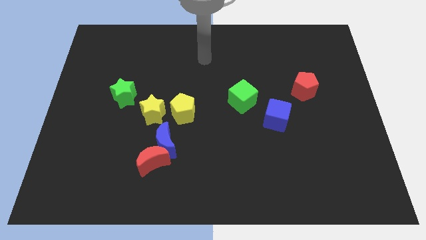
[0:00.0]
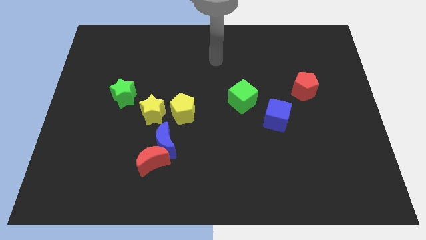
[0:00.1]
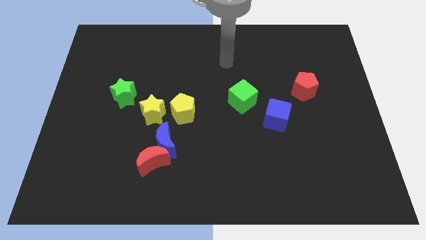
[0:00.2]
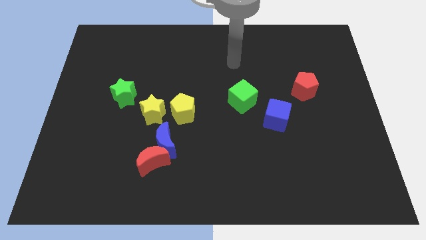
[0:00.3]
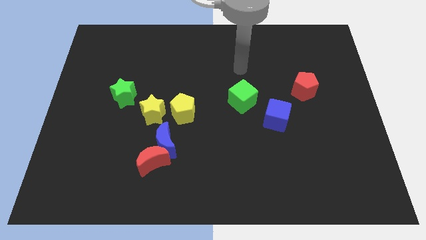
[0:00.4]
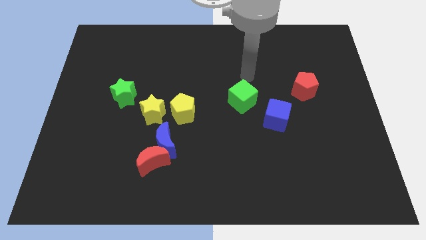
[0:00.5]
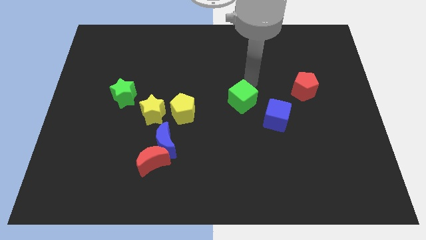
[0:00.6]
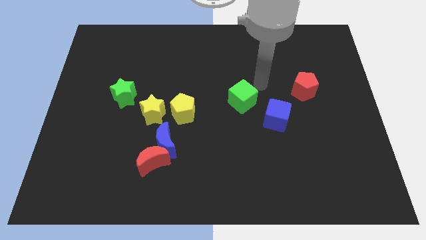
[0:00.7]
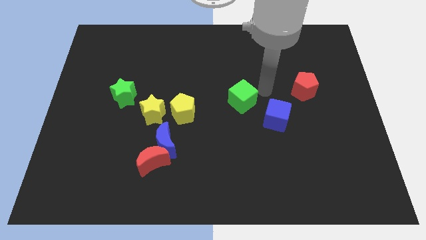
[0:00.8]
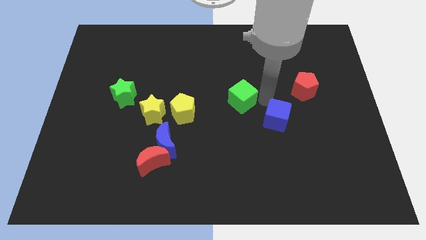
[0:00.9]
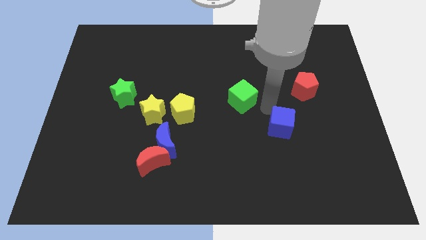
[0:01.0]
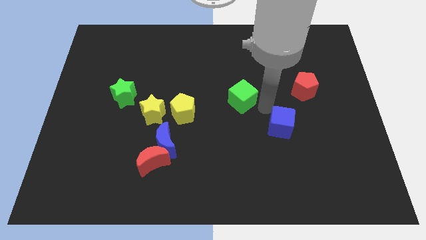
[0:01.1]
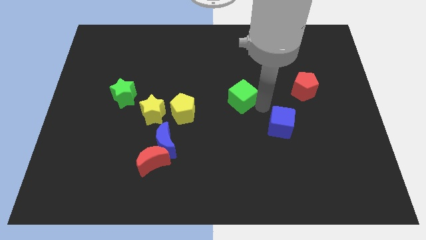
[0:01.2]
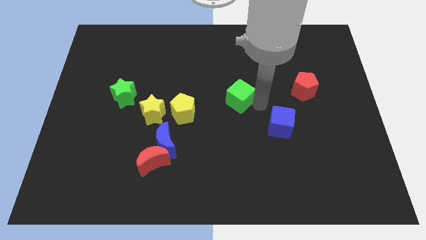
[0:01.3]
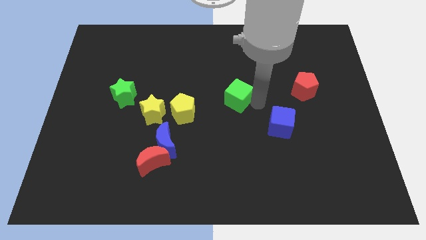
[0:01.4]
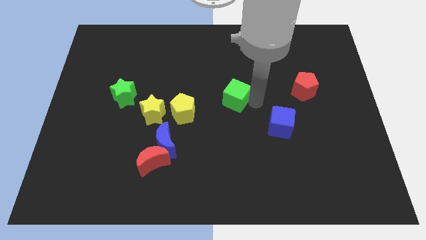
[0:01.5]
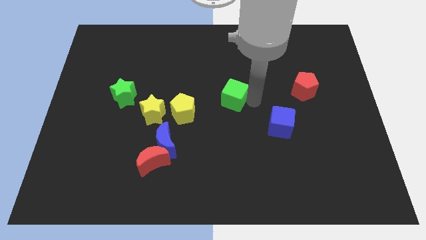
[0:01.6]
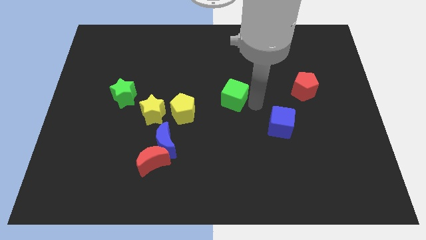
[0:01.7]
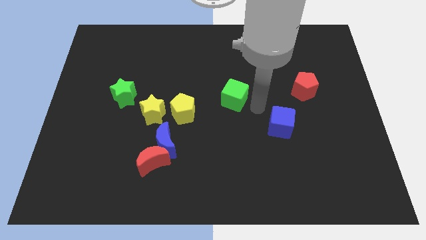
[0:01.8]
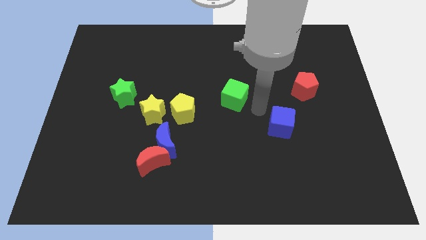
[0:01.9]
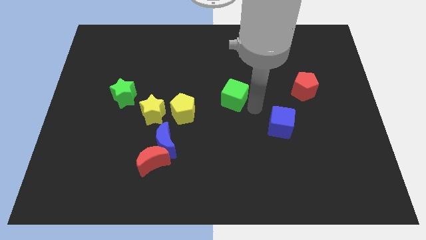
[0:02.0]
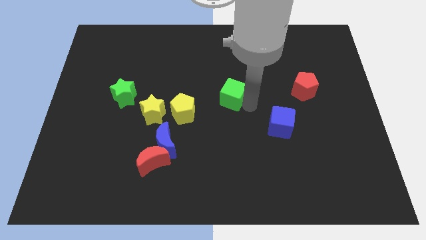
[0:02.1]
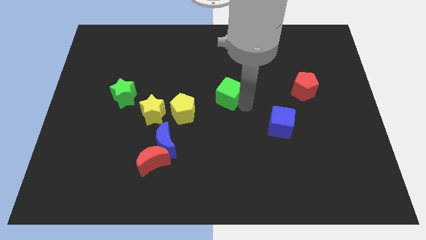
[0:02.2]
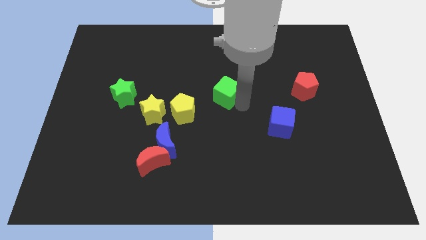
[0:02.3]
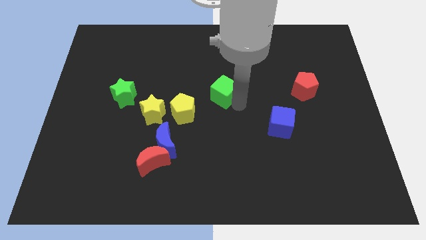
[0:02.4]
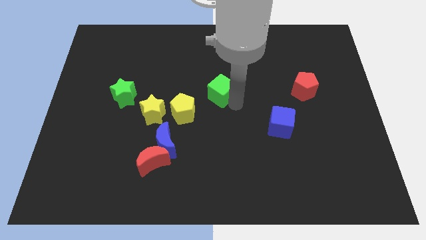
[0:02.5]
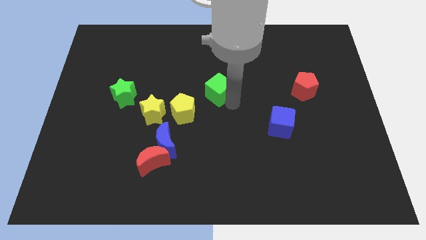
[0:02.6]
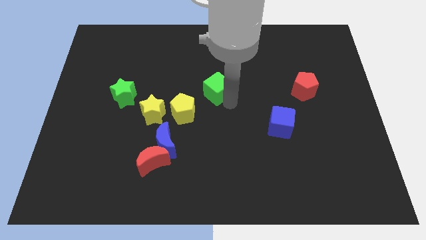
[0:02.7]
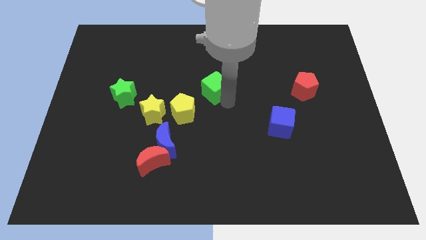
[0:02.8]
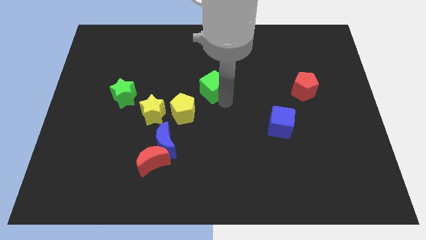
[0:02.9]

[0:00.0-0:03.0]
slightly slide the green cube up and to the left diagonally

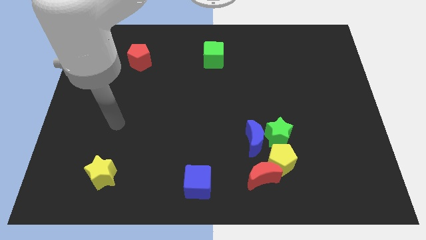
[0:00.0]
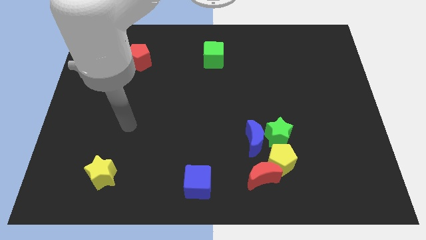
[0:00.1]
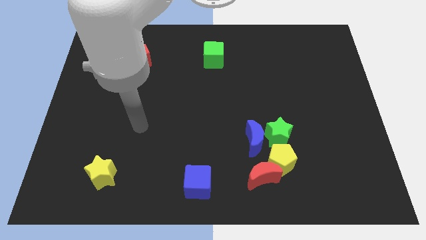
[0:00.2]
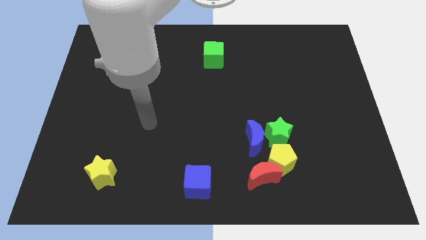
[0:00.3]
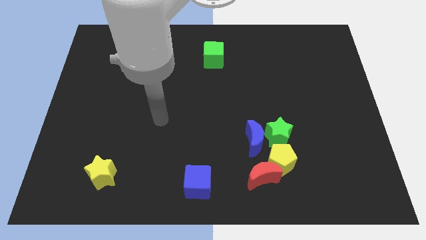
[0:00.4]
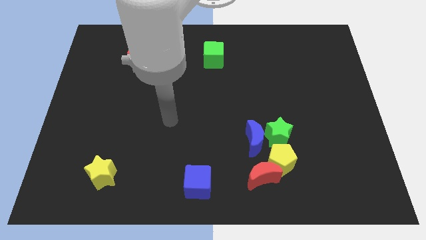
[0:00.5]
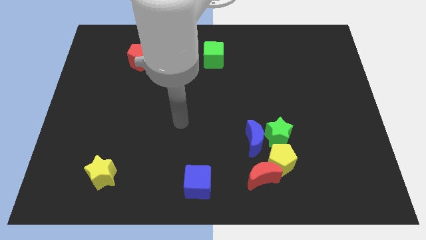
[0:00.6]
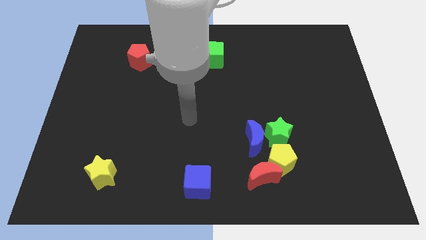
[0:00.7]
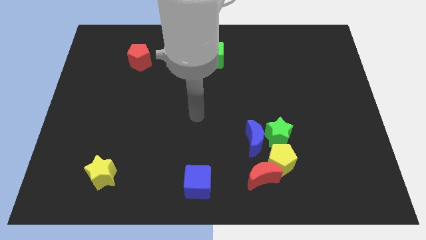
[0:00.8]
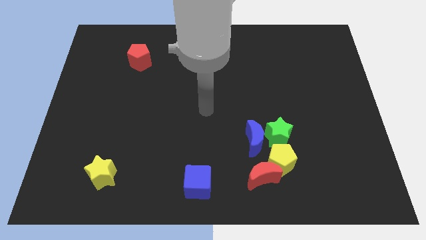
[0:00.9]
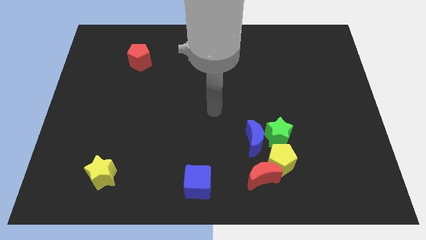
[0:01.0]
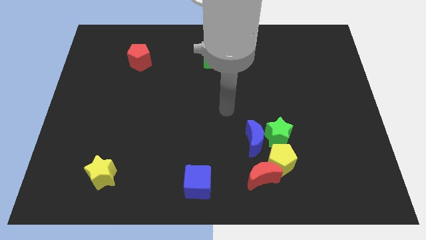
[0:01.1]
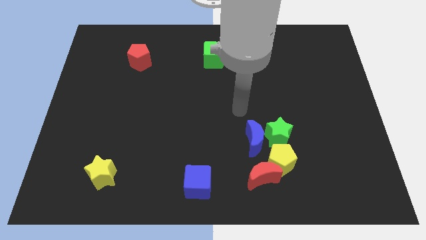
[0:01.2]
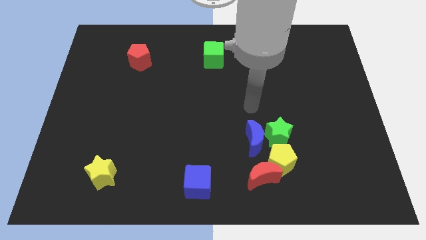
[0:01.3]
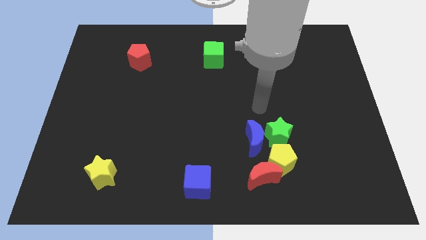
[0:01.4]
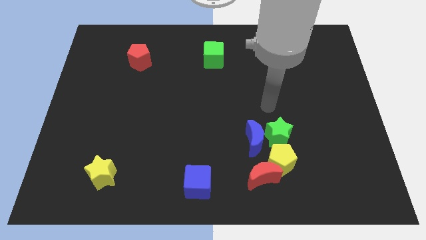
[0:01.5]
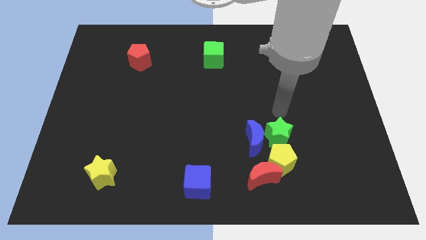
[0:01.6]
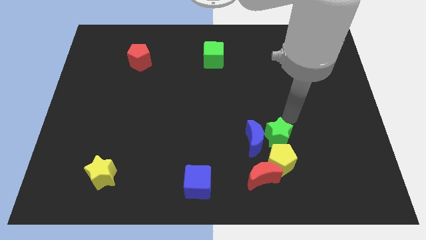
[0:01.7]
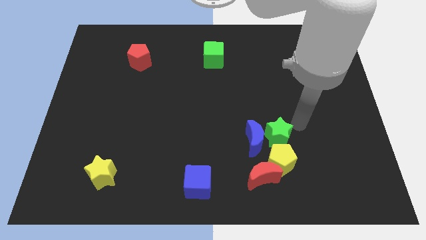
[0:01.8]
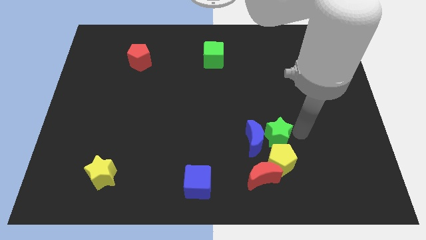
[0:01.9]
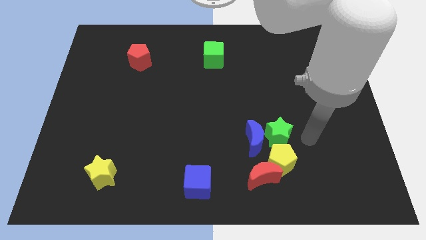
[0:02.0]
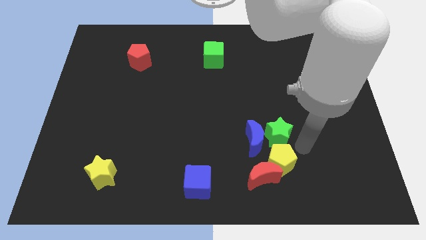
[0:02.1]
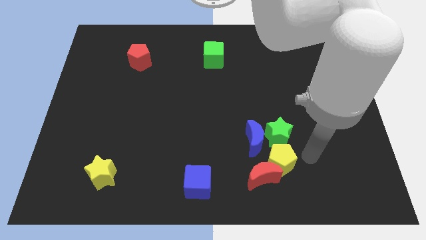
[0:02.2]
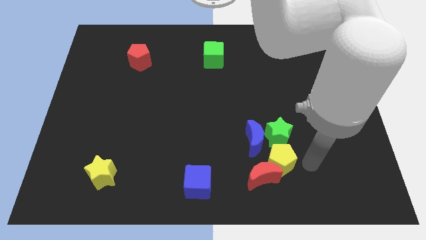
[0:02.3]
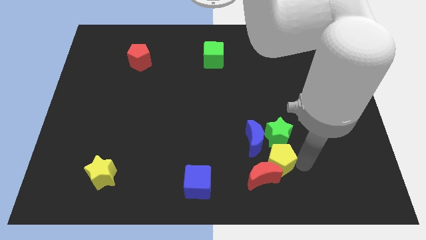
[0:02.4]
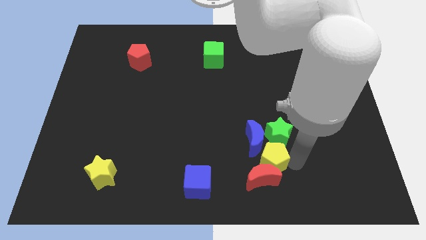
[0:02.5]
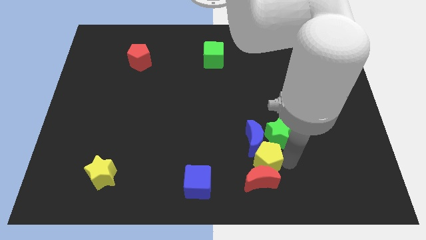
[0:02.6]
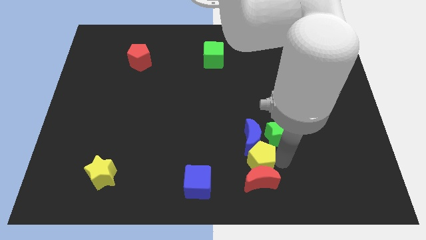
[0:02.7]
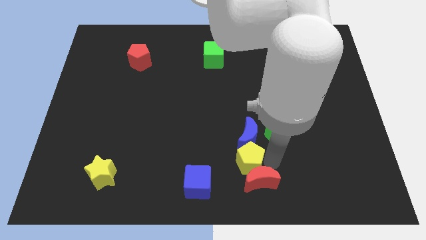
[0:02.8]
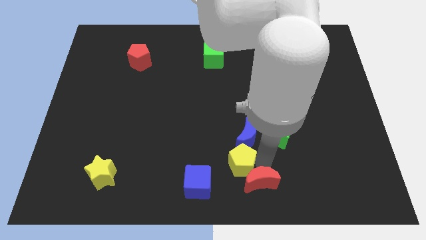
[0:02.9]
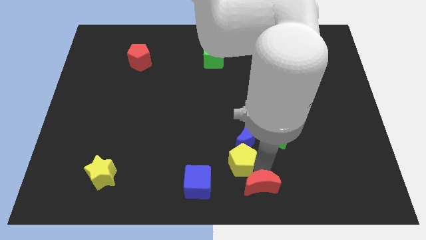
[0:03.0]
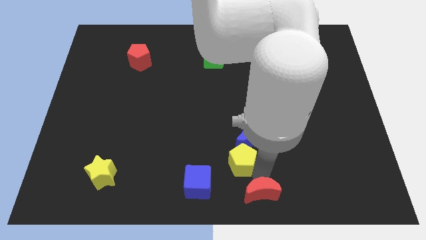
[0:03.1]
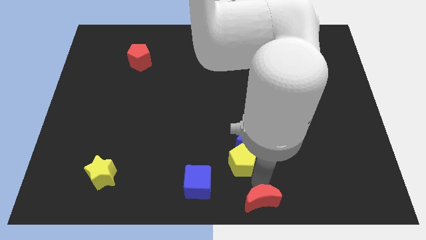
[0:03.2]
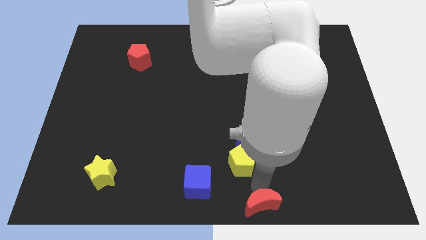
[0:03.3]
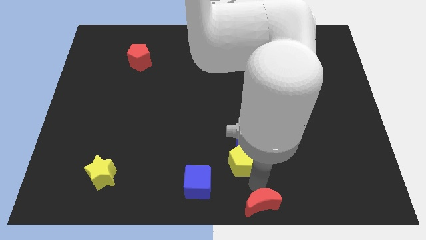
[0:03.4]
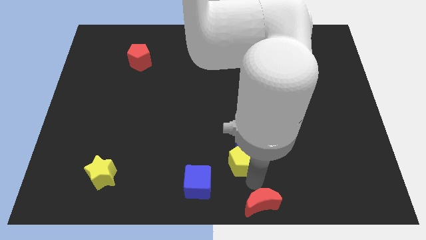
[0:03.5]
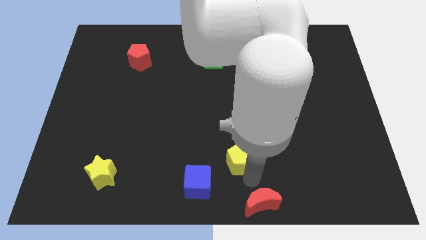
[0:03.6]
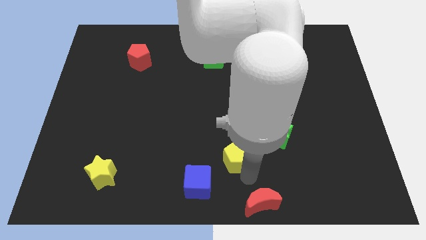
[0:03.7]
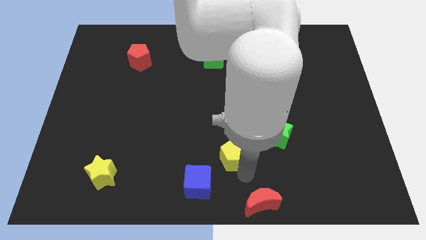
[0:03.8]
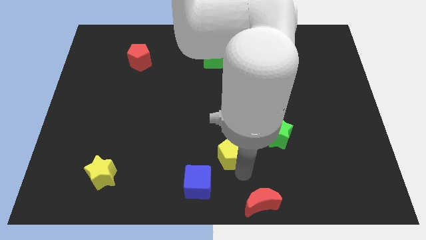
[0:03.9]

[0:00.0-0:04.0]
move the yellow pentagon diagonally upwards and left a little bit

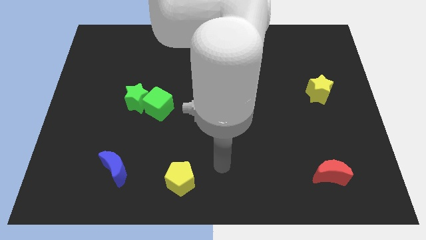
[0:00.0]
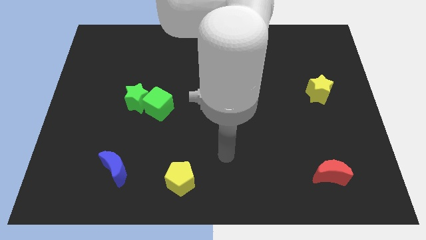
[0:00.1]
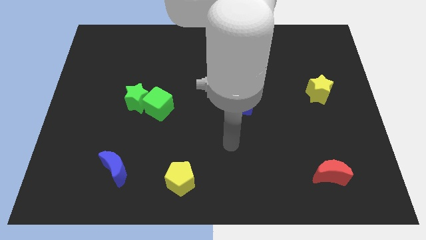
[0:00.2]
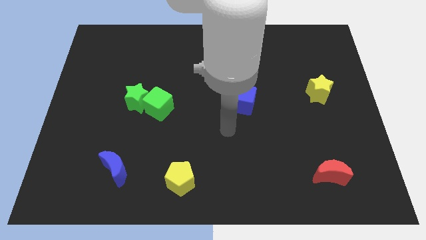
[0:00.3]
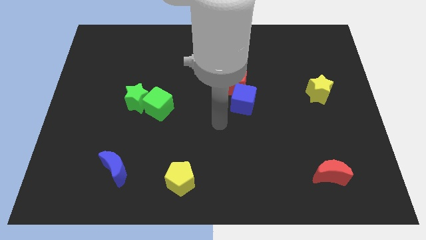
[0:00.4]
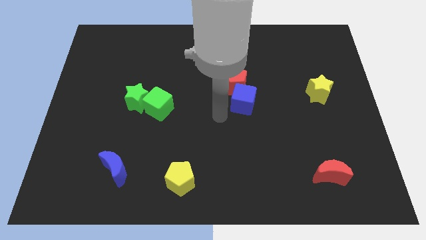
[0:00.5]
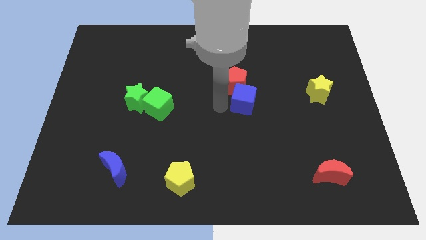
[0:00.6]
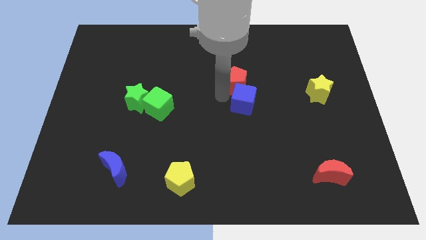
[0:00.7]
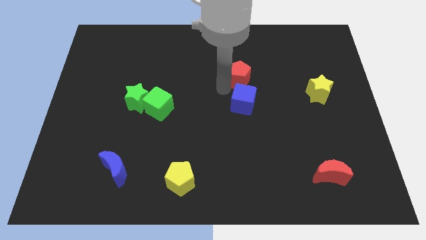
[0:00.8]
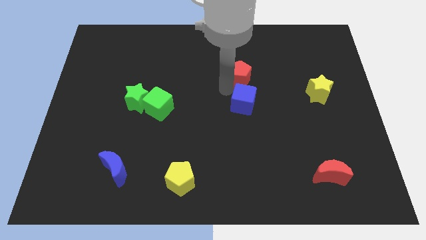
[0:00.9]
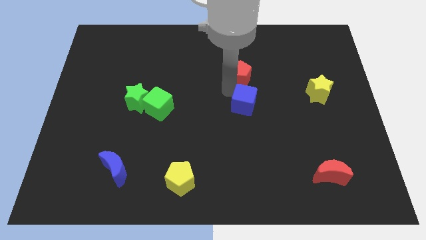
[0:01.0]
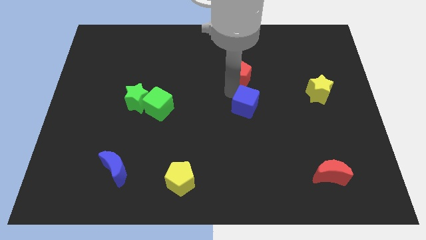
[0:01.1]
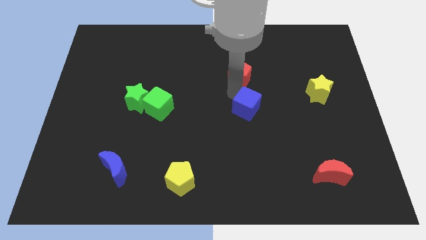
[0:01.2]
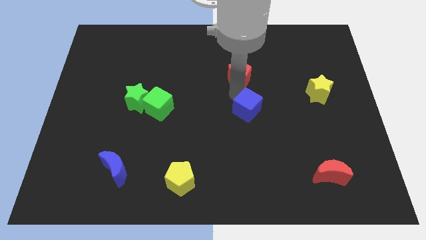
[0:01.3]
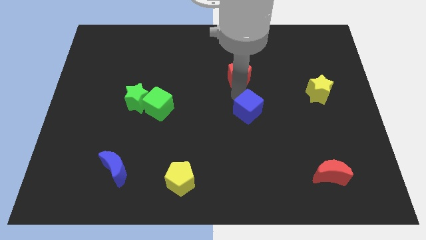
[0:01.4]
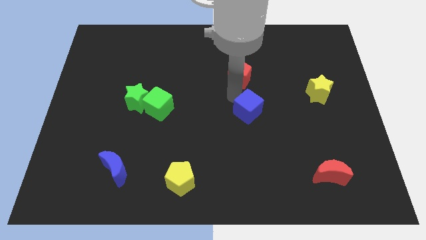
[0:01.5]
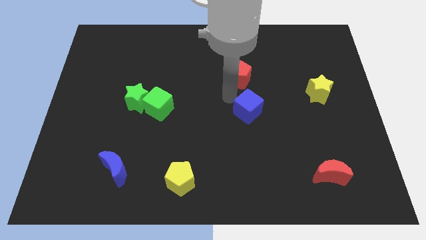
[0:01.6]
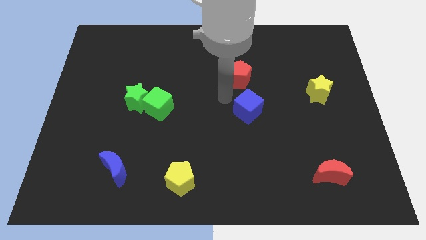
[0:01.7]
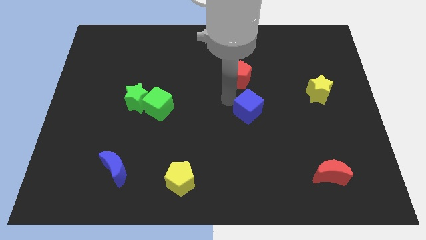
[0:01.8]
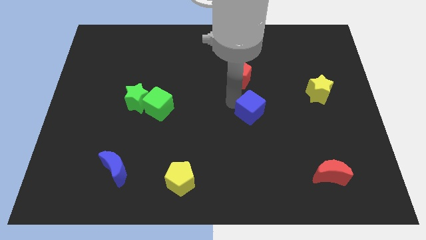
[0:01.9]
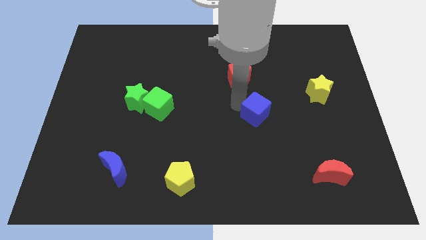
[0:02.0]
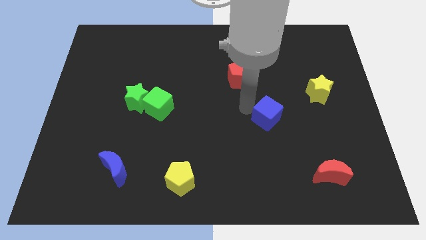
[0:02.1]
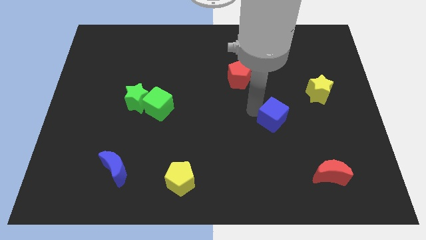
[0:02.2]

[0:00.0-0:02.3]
slightly push the blue cube downwards and to the right
